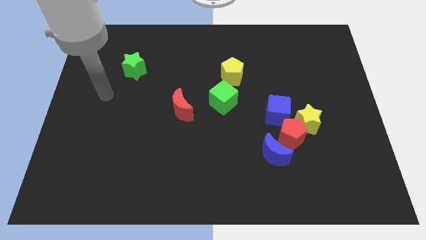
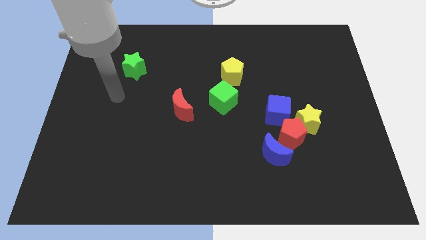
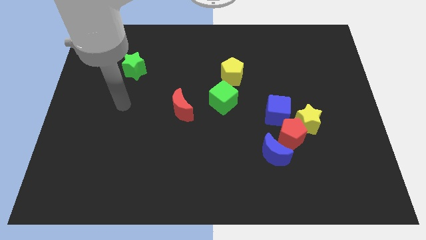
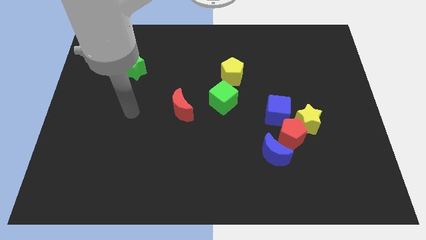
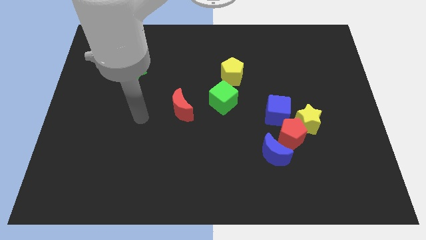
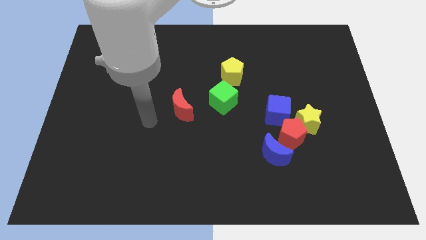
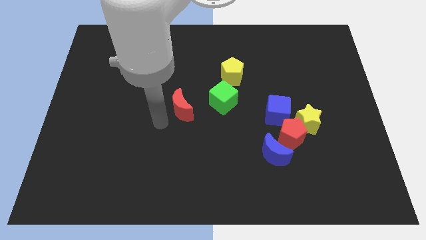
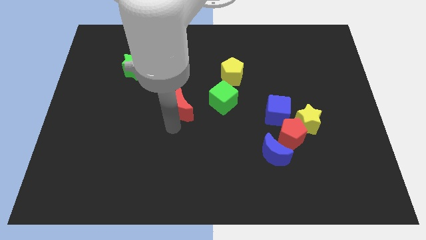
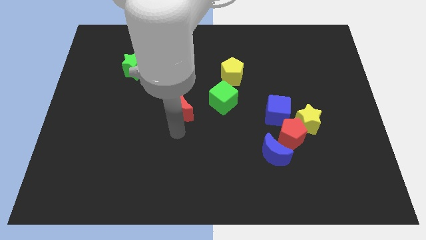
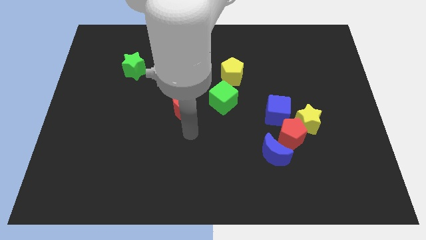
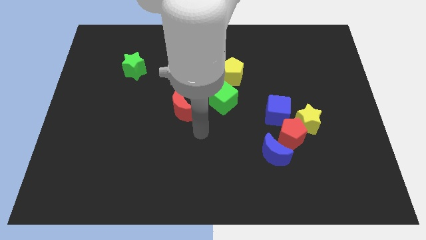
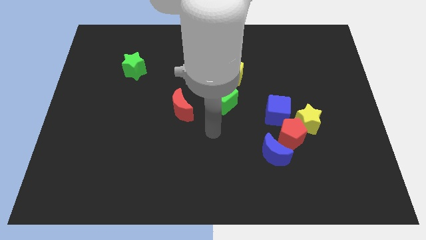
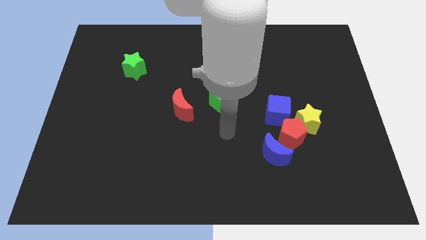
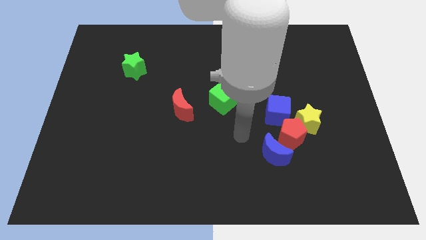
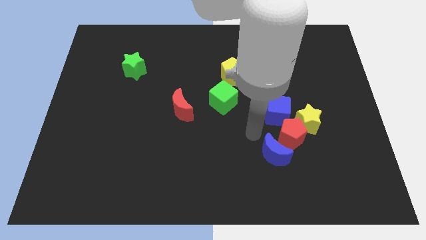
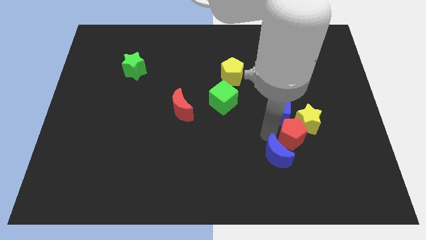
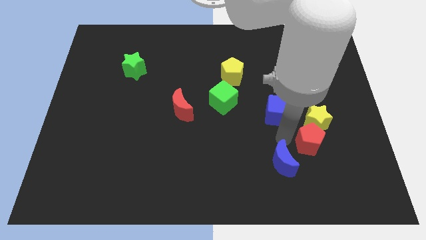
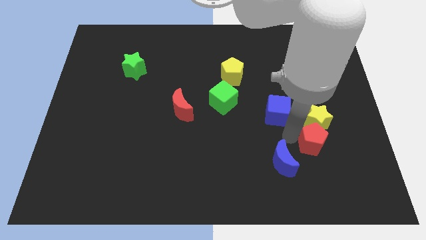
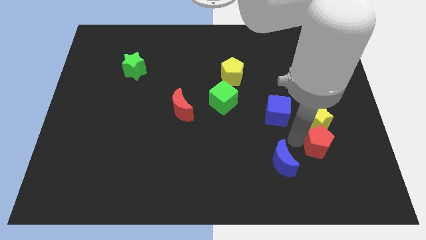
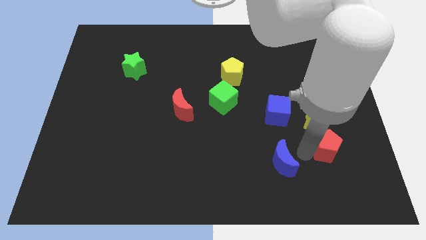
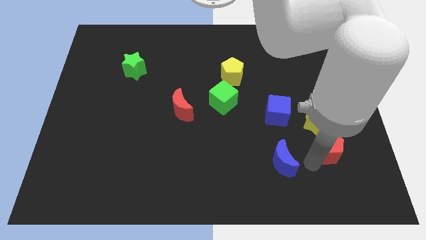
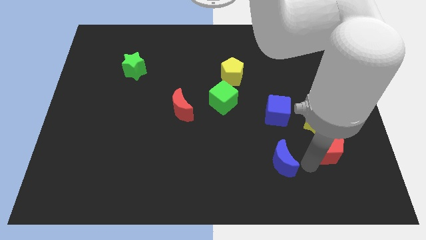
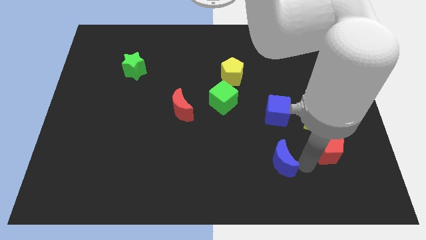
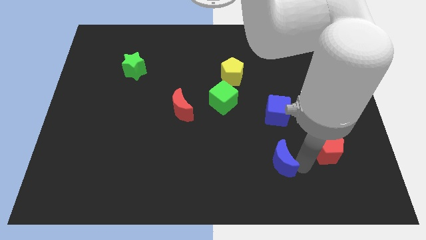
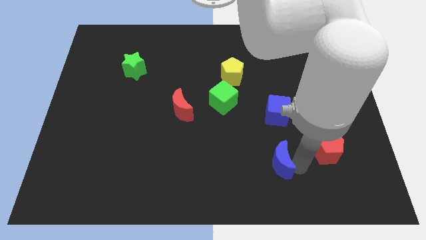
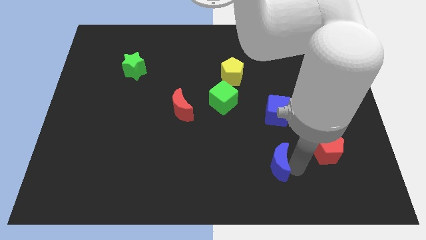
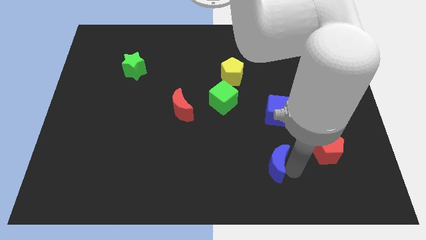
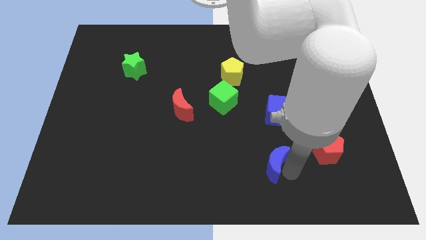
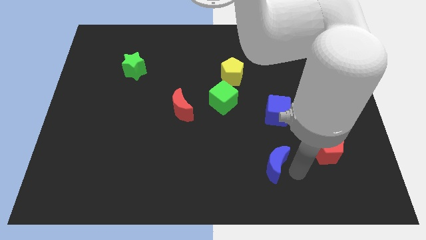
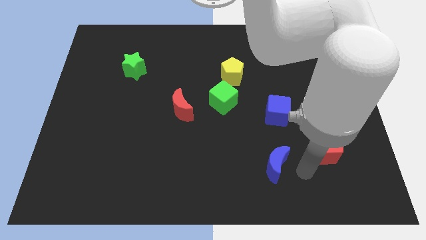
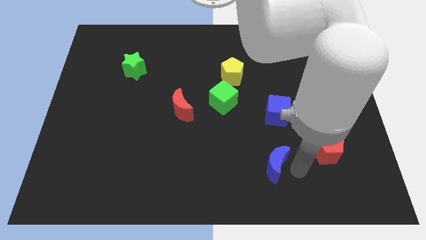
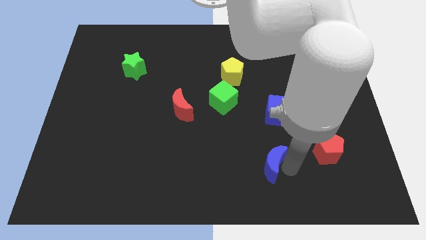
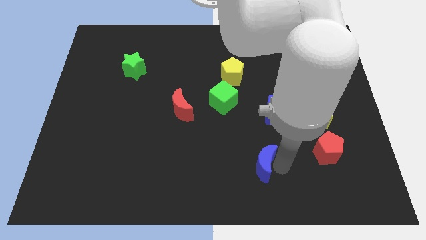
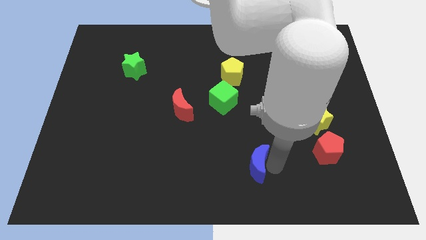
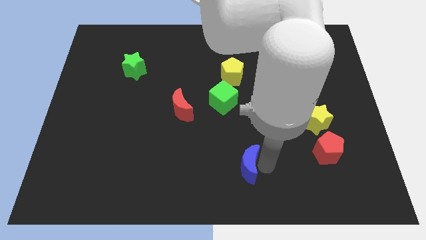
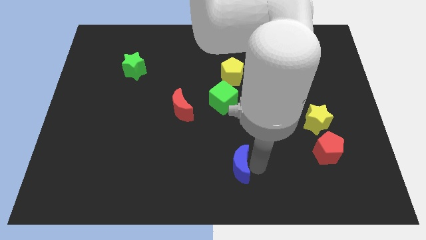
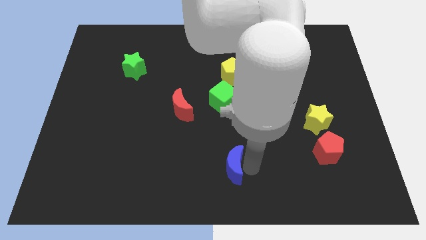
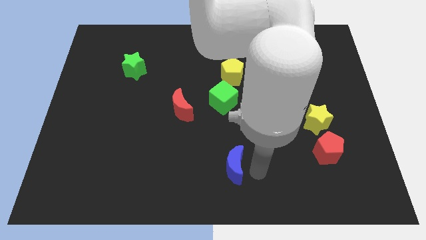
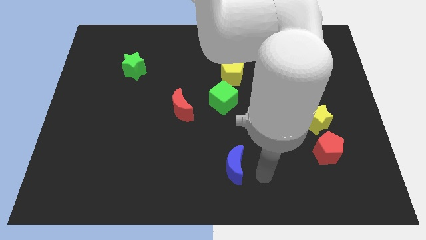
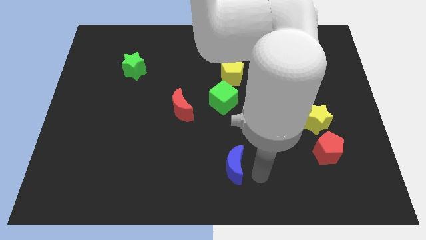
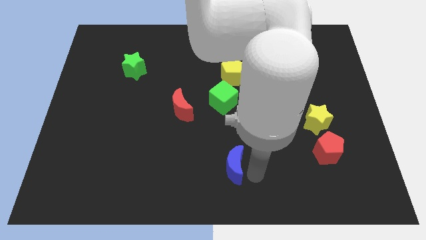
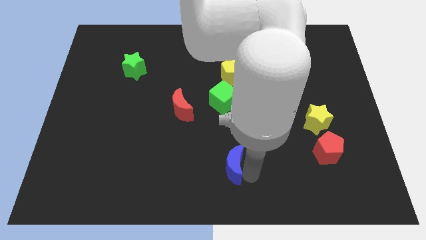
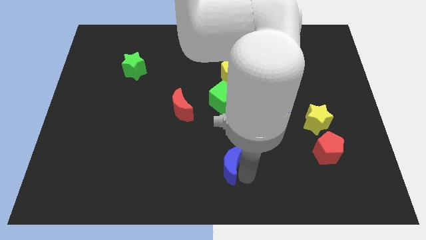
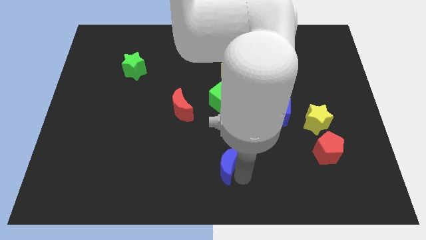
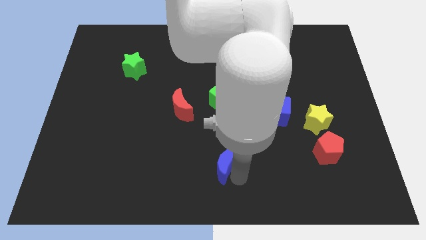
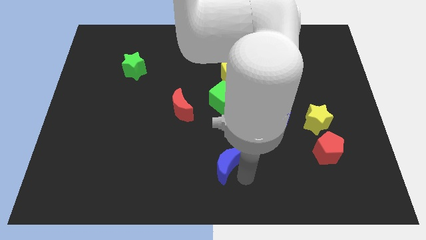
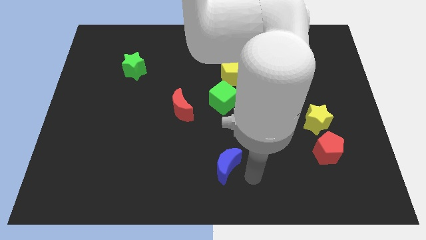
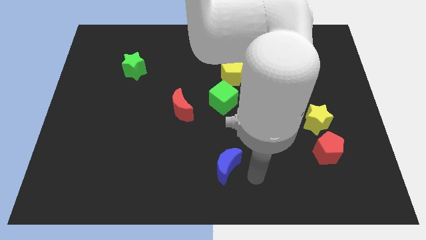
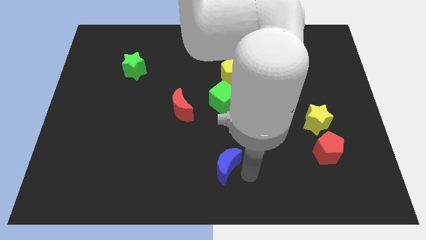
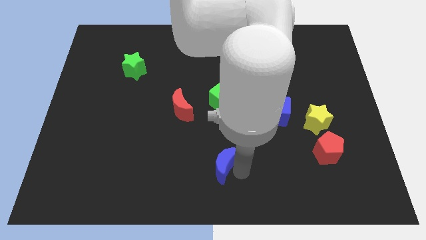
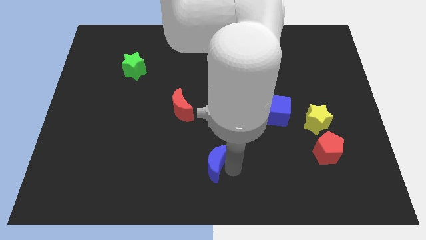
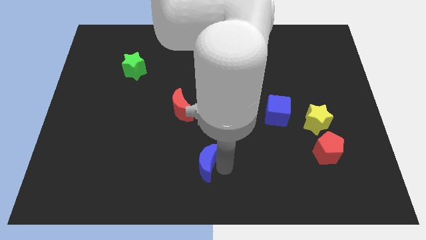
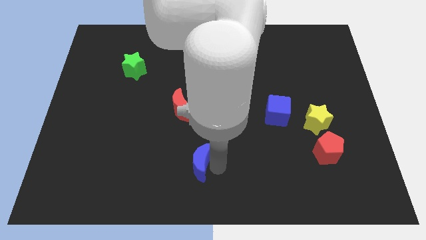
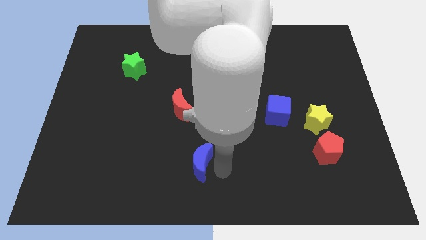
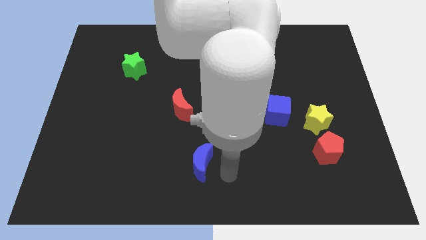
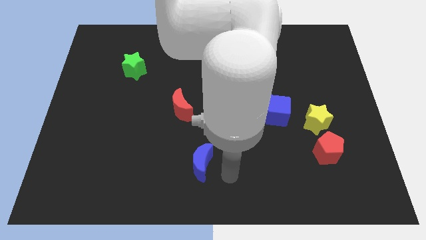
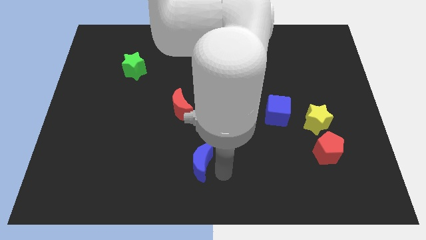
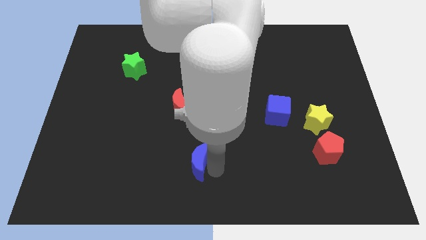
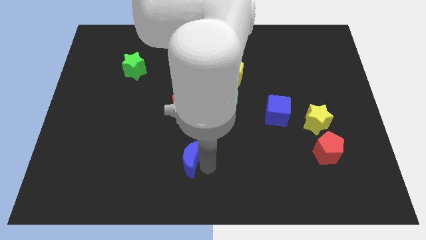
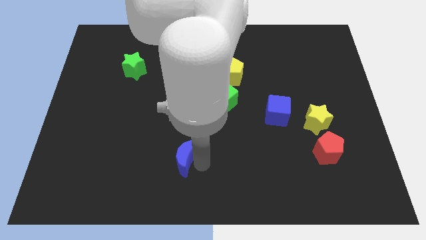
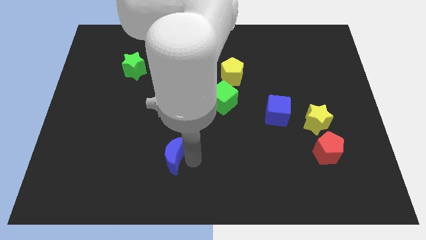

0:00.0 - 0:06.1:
move the blue moon left

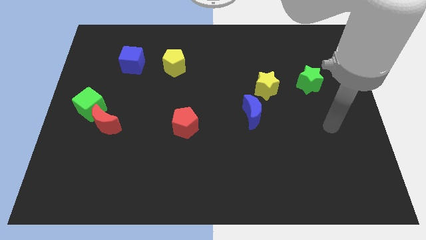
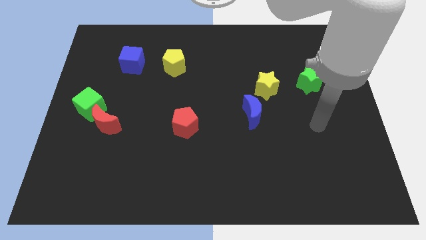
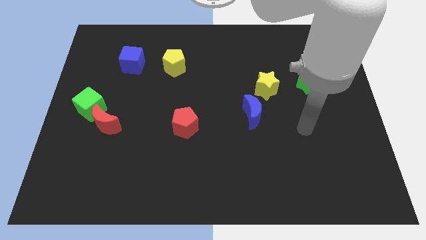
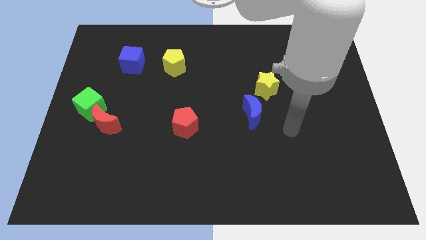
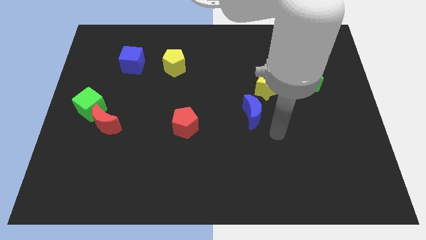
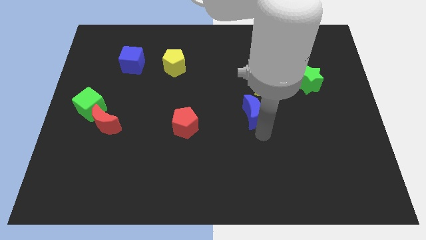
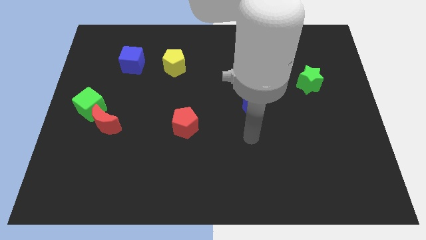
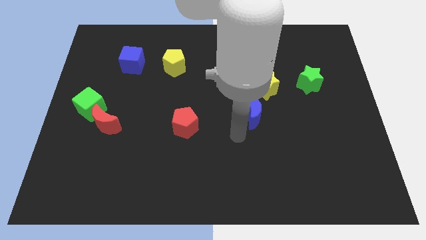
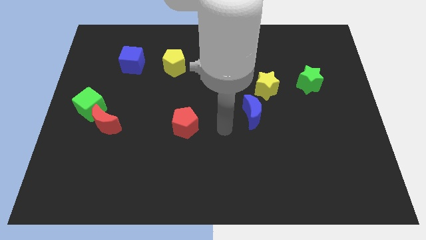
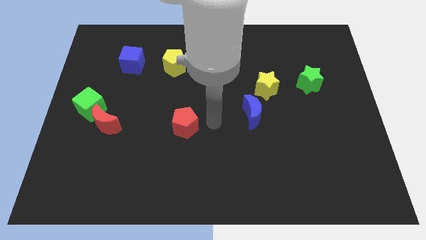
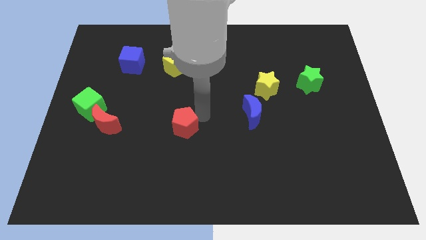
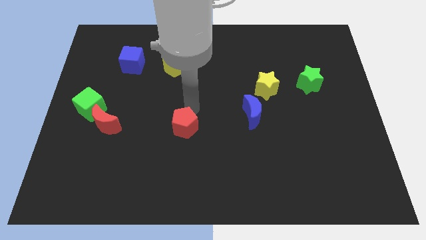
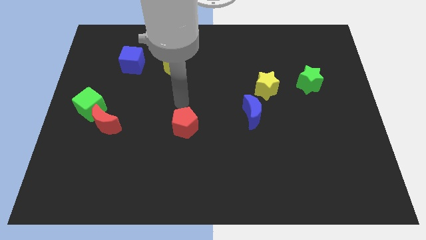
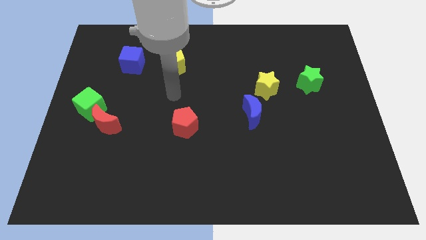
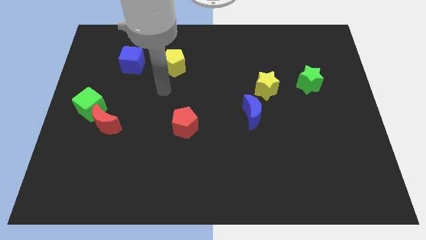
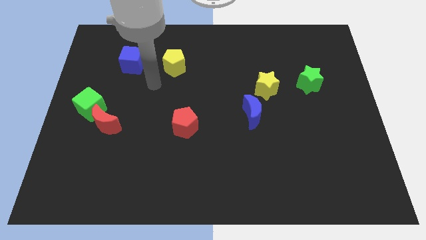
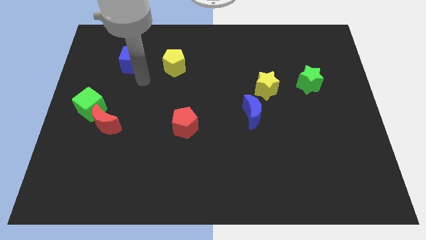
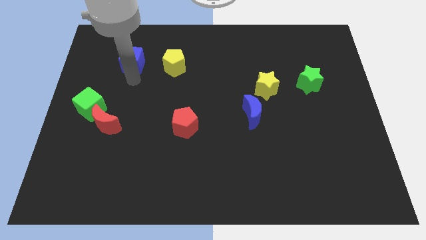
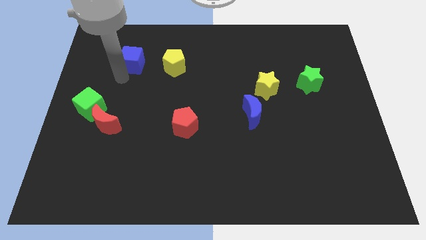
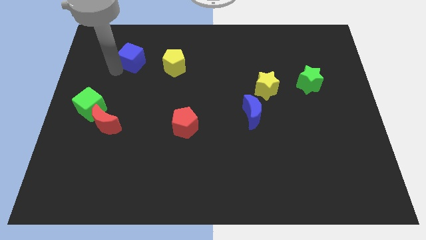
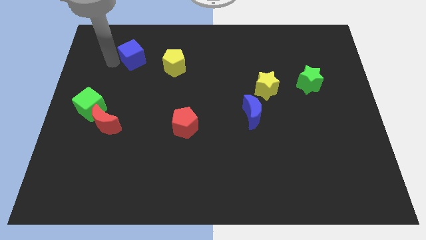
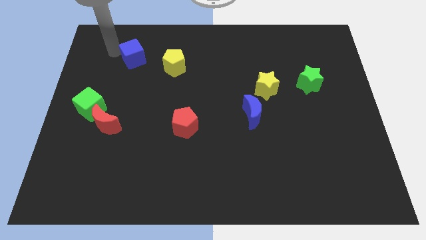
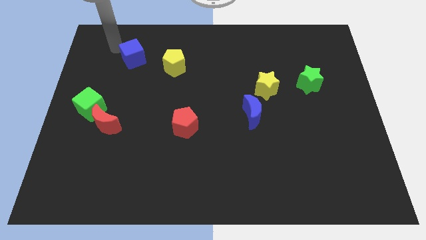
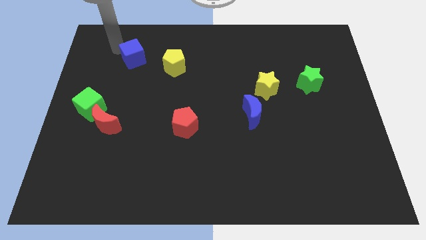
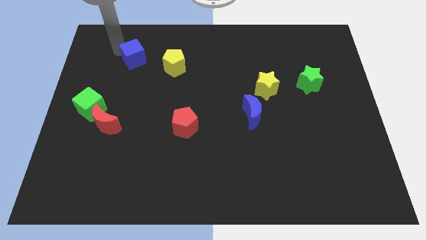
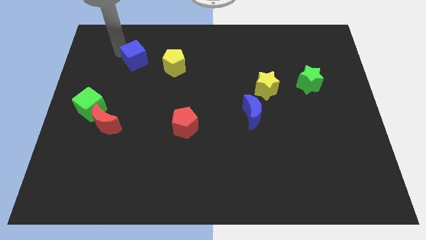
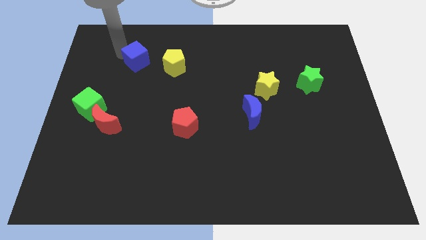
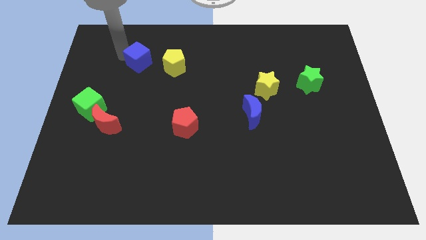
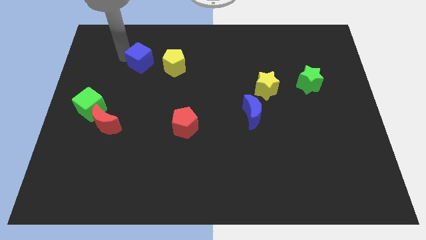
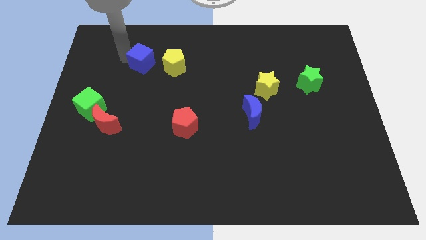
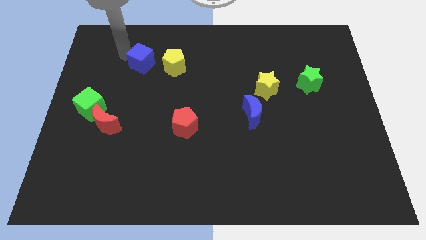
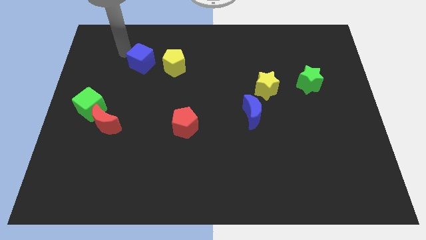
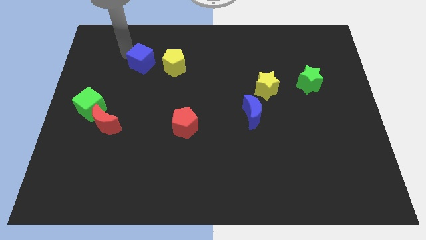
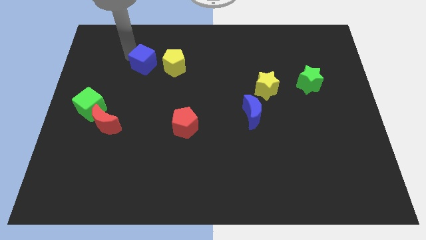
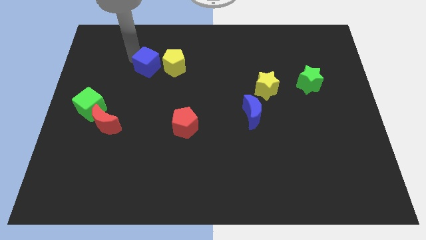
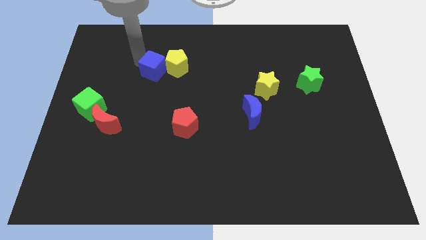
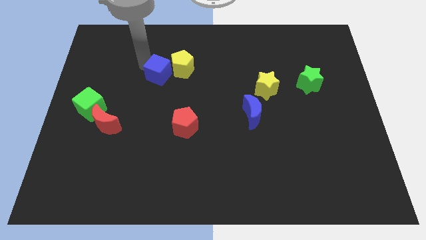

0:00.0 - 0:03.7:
slide the blue cube a little bit right
